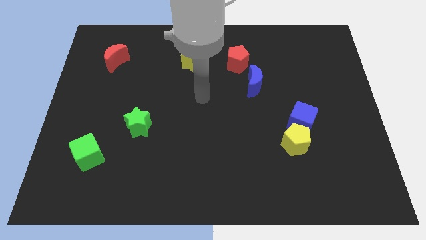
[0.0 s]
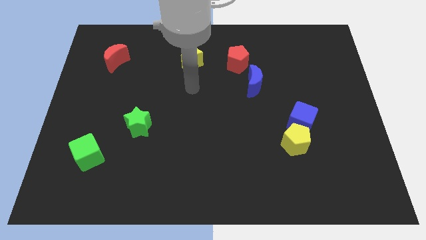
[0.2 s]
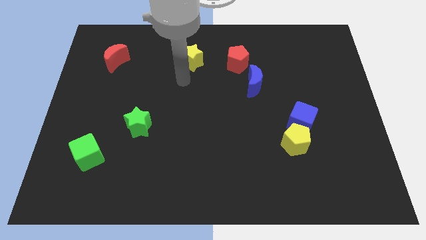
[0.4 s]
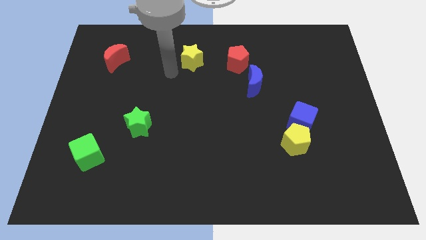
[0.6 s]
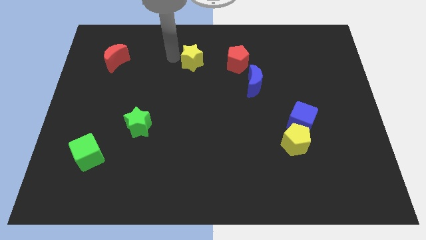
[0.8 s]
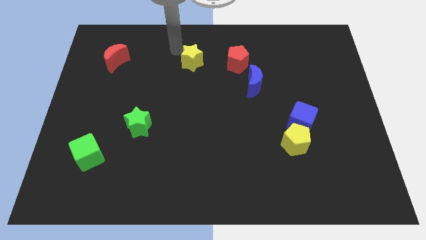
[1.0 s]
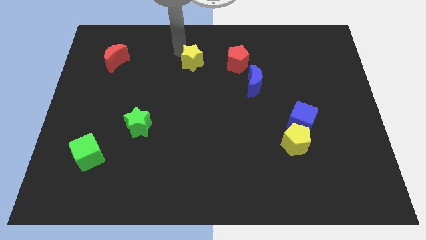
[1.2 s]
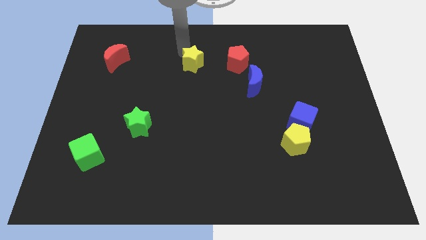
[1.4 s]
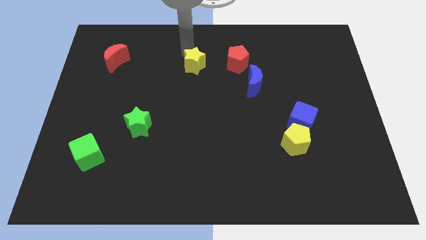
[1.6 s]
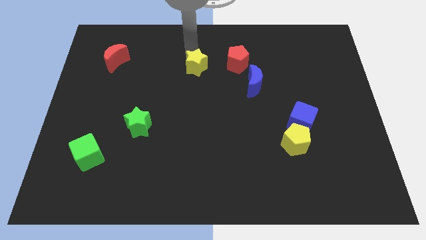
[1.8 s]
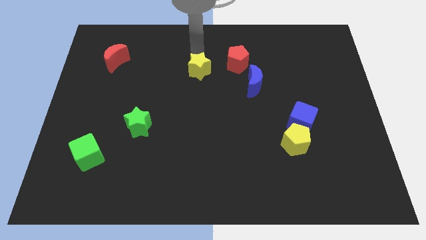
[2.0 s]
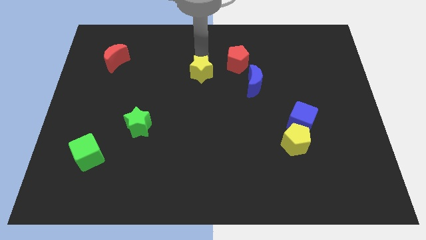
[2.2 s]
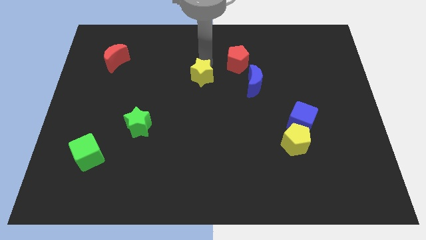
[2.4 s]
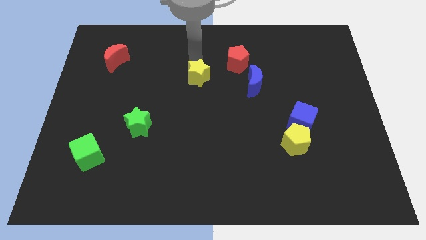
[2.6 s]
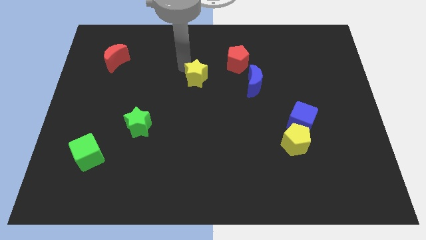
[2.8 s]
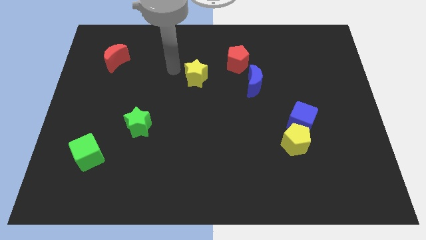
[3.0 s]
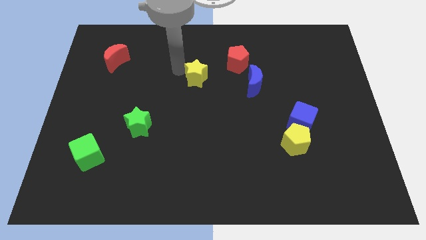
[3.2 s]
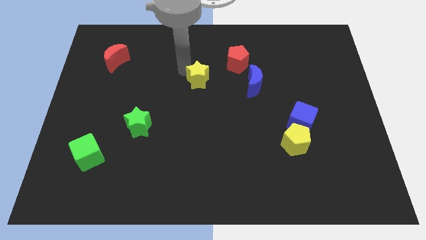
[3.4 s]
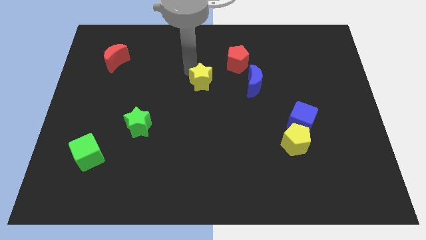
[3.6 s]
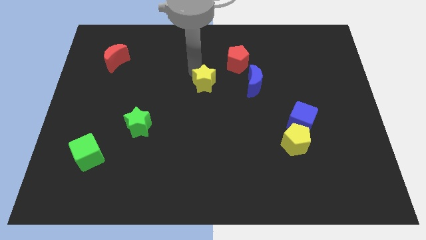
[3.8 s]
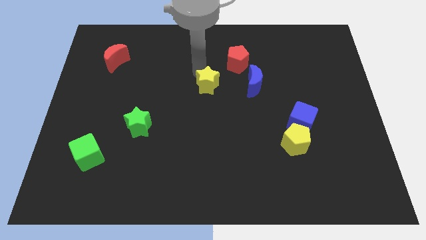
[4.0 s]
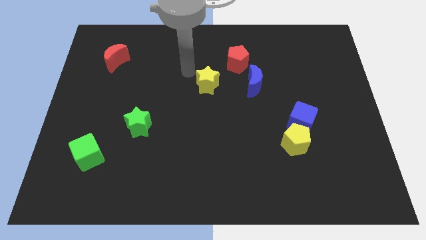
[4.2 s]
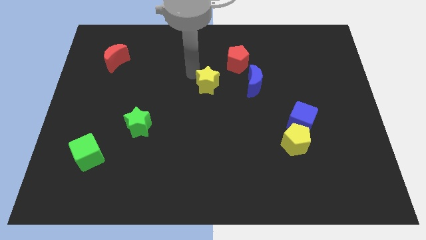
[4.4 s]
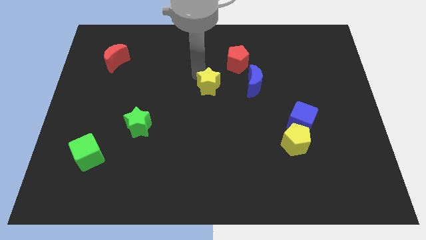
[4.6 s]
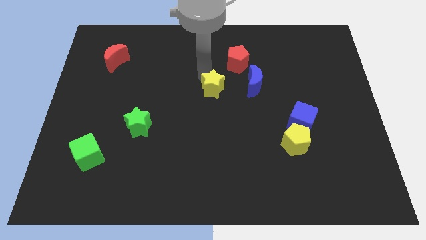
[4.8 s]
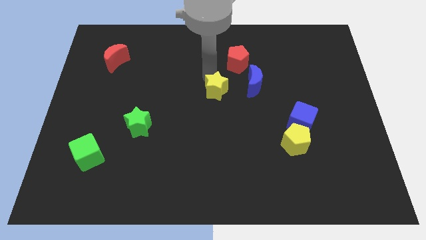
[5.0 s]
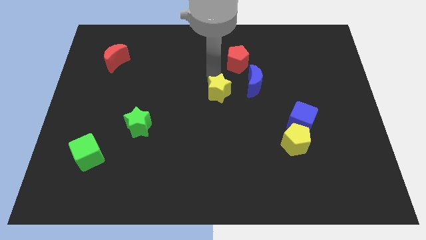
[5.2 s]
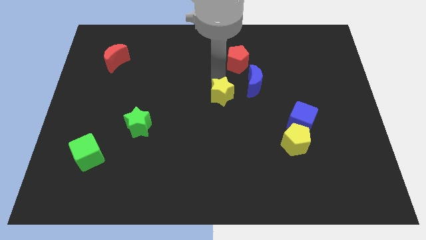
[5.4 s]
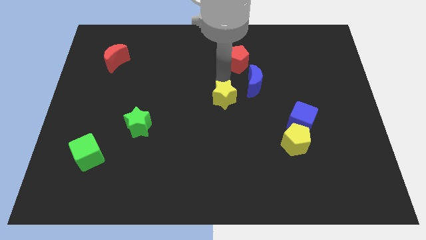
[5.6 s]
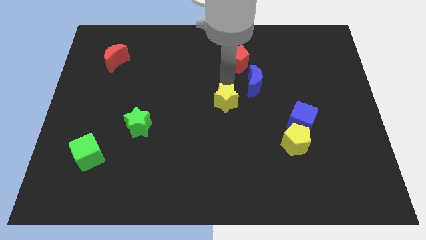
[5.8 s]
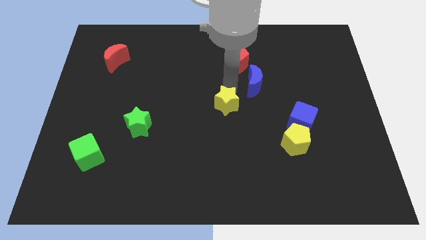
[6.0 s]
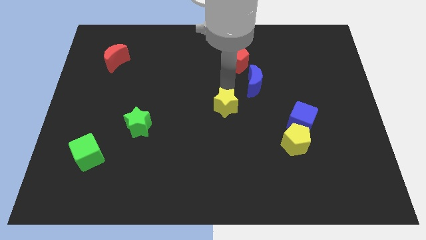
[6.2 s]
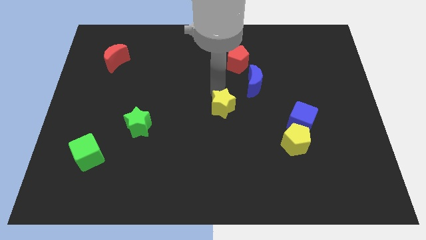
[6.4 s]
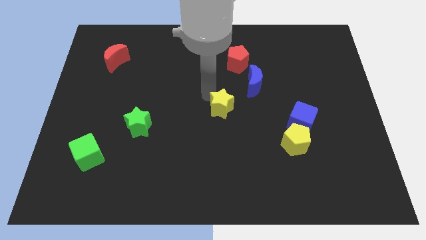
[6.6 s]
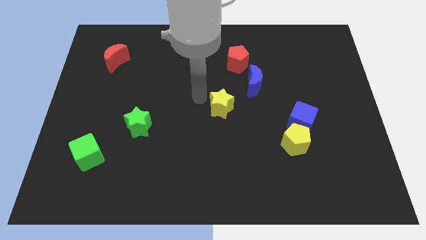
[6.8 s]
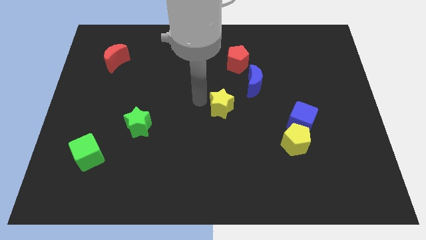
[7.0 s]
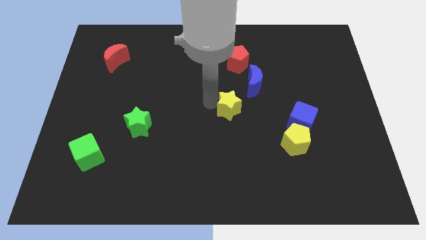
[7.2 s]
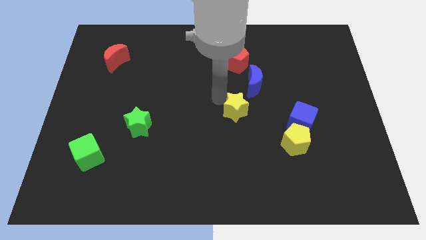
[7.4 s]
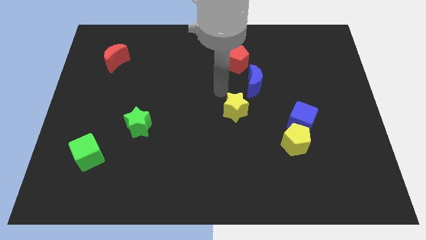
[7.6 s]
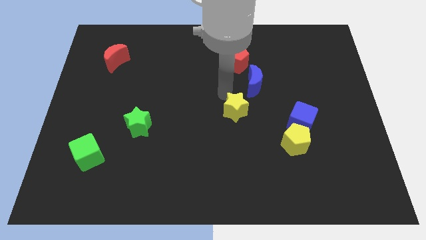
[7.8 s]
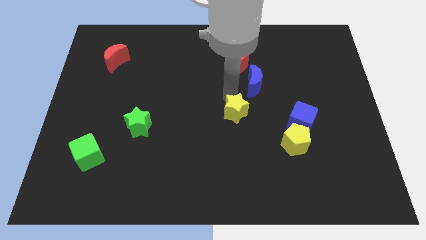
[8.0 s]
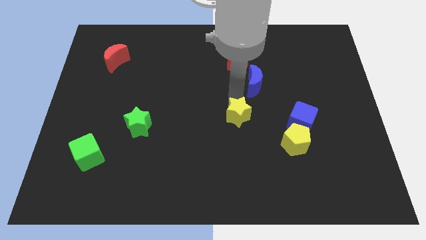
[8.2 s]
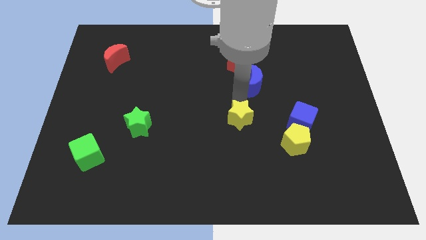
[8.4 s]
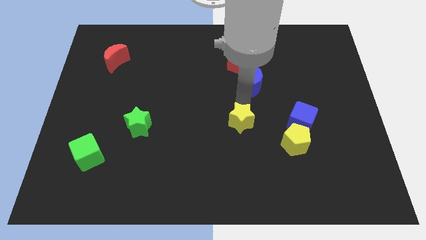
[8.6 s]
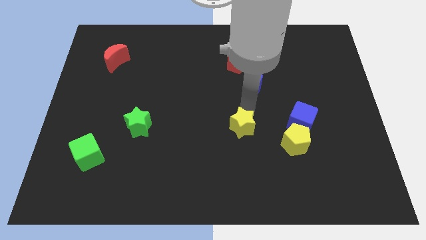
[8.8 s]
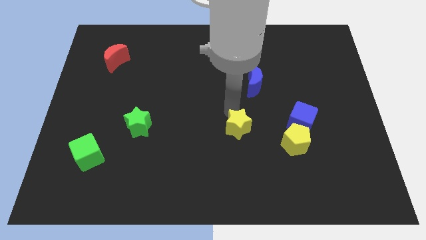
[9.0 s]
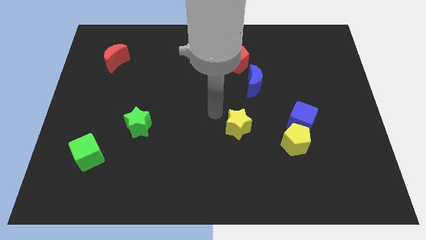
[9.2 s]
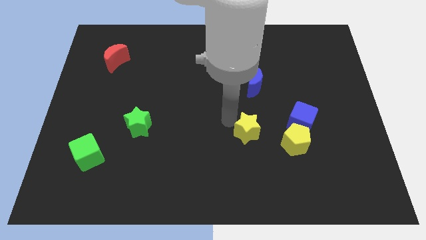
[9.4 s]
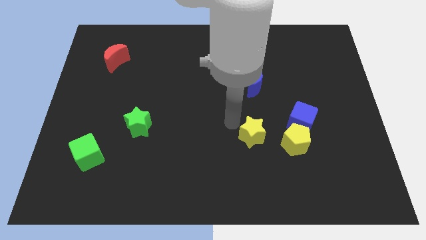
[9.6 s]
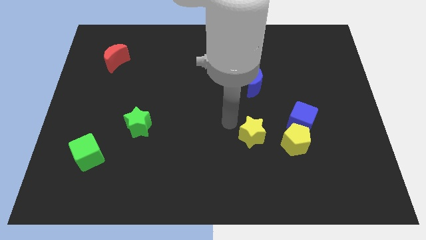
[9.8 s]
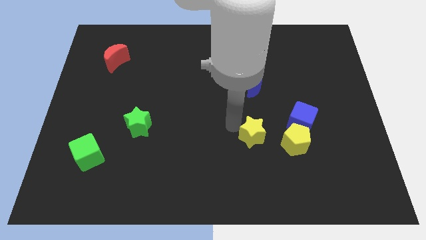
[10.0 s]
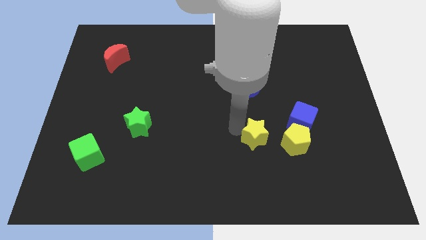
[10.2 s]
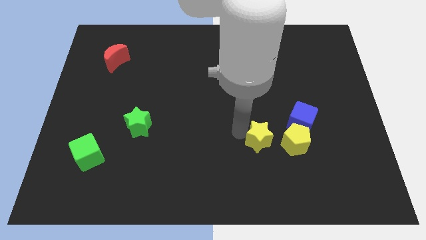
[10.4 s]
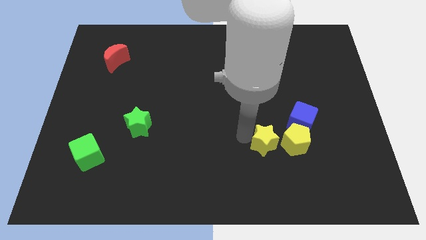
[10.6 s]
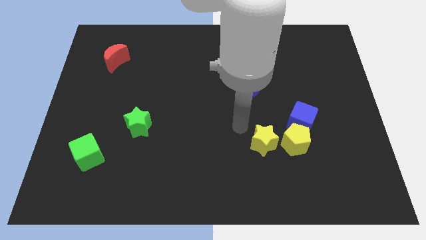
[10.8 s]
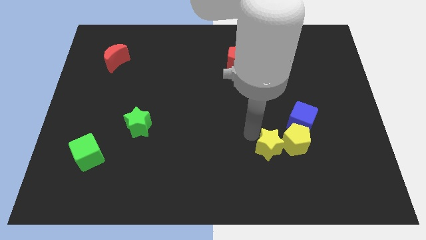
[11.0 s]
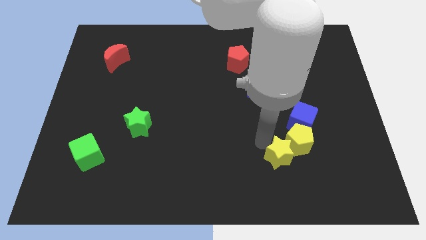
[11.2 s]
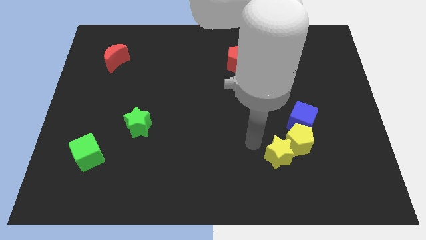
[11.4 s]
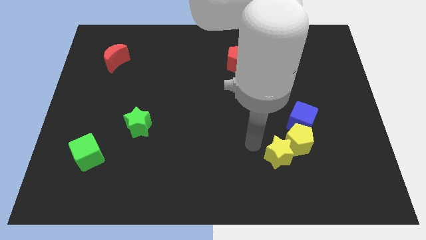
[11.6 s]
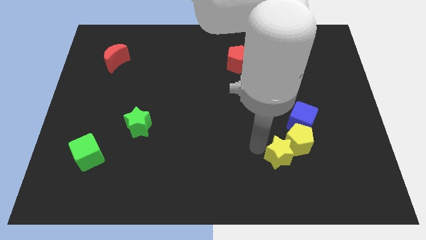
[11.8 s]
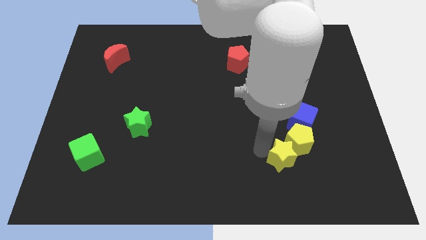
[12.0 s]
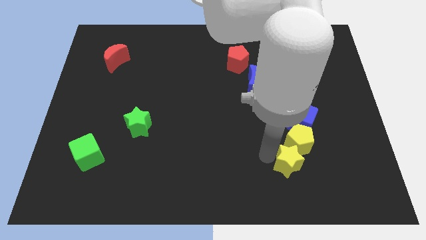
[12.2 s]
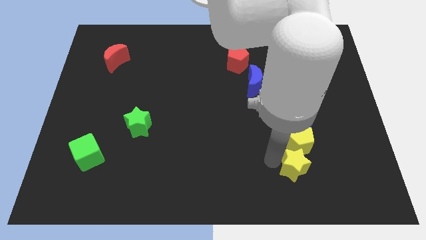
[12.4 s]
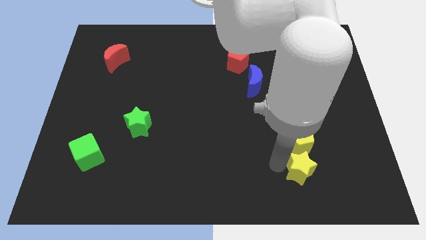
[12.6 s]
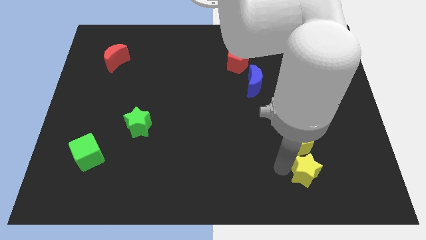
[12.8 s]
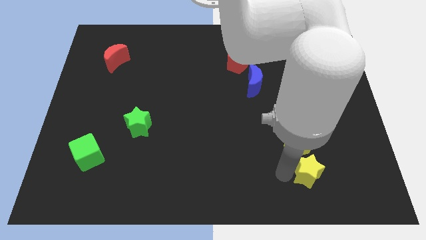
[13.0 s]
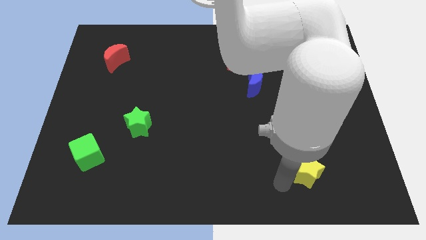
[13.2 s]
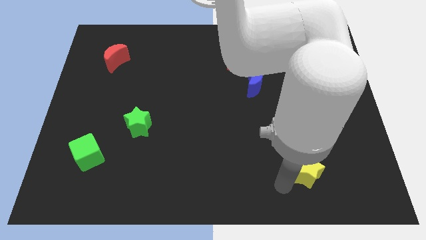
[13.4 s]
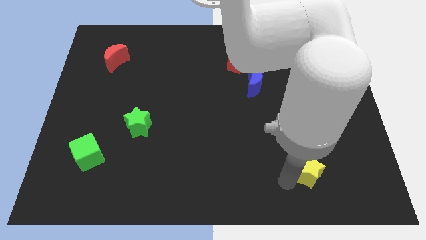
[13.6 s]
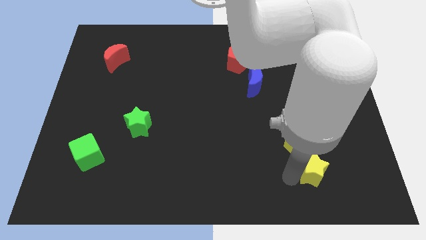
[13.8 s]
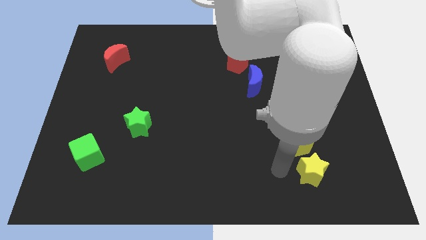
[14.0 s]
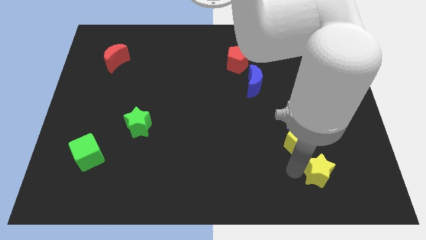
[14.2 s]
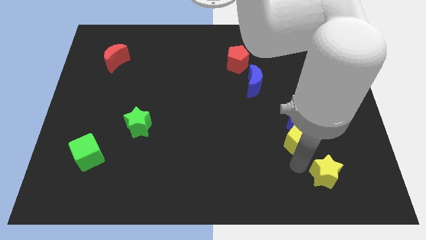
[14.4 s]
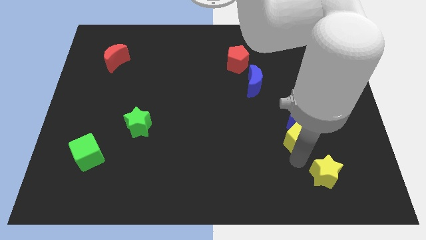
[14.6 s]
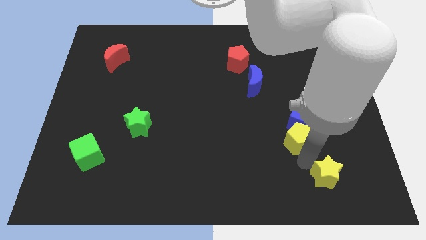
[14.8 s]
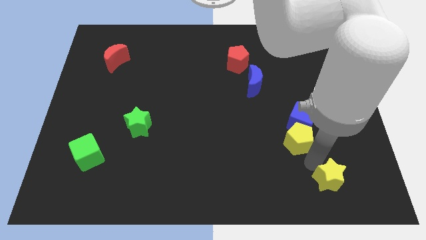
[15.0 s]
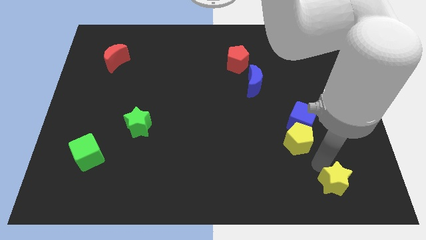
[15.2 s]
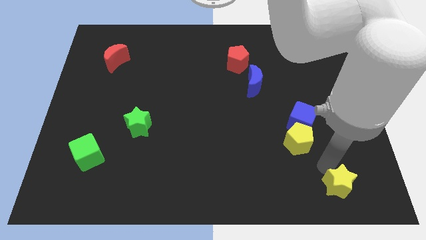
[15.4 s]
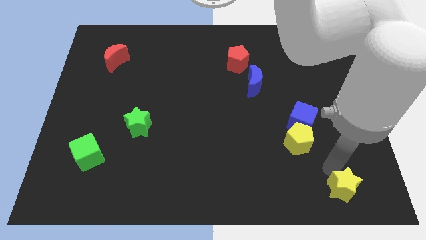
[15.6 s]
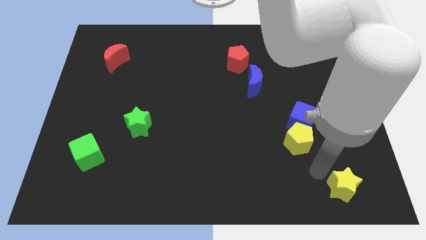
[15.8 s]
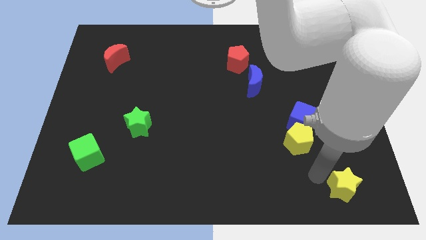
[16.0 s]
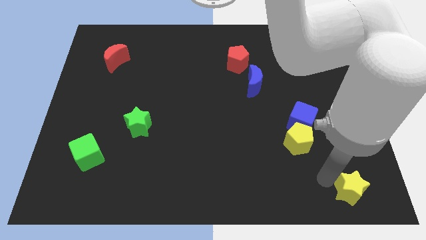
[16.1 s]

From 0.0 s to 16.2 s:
push the yellow star to the bottom right corner
